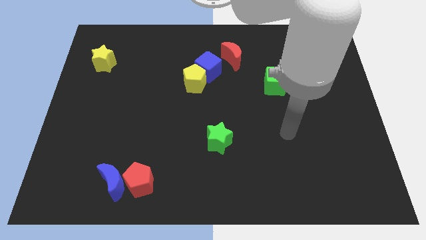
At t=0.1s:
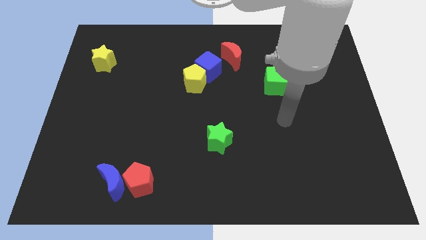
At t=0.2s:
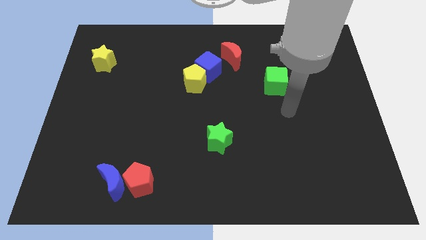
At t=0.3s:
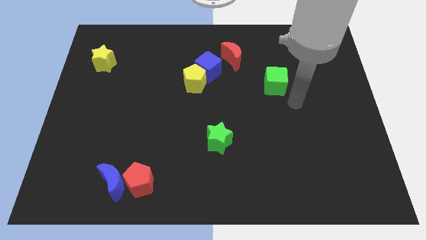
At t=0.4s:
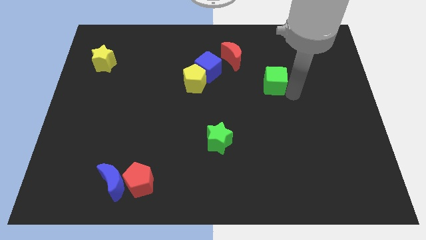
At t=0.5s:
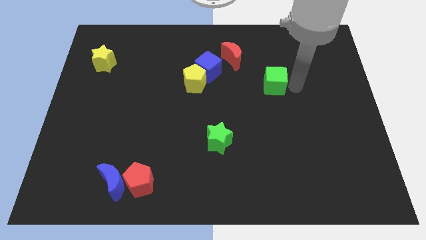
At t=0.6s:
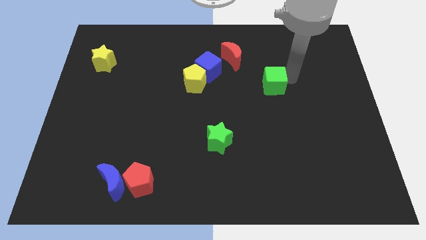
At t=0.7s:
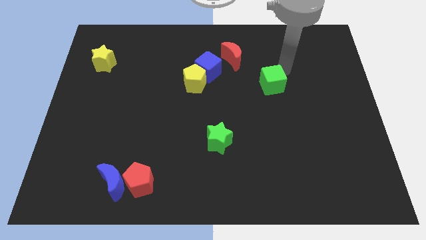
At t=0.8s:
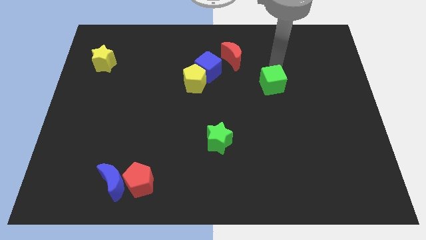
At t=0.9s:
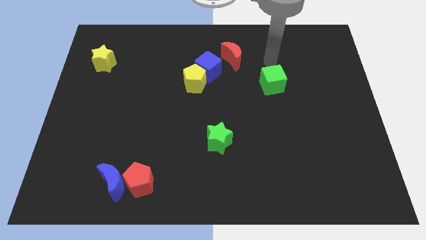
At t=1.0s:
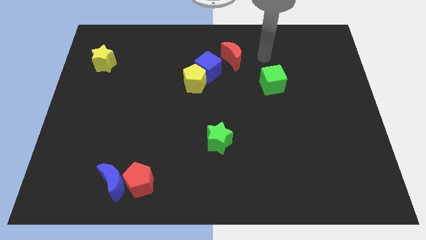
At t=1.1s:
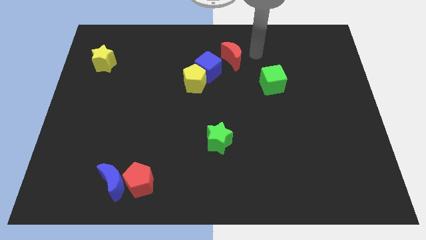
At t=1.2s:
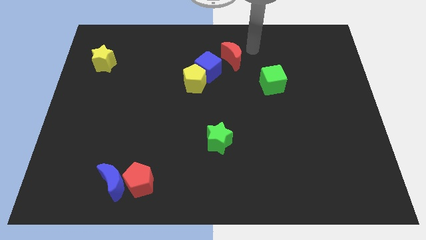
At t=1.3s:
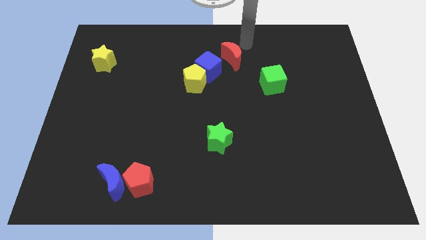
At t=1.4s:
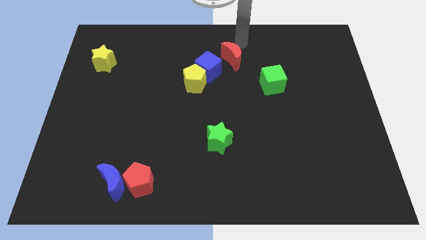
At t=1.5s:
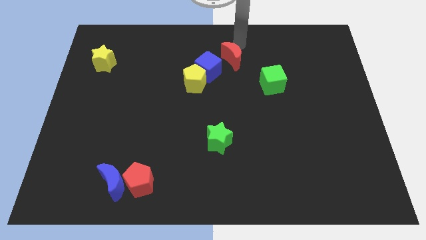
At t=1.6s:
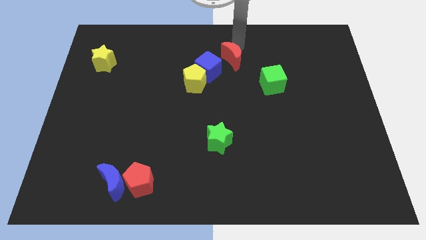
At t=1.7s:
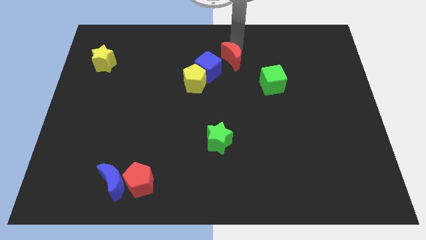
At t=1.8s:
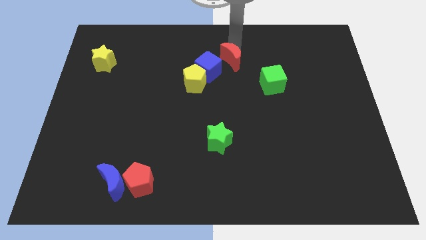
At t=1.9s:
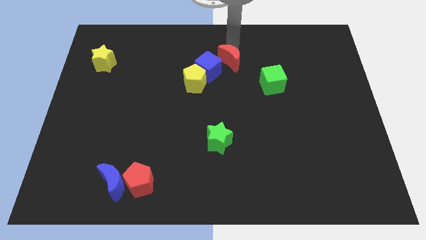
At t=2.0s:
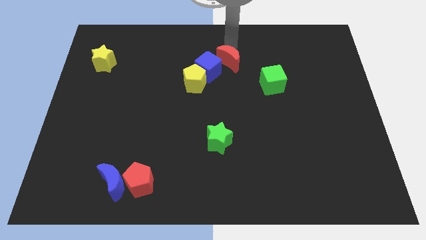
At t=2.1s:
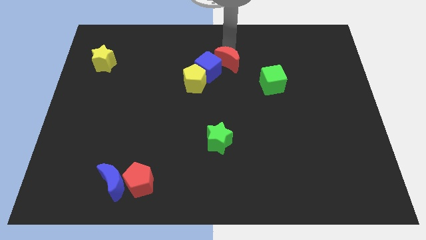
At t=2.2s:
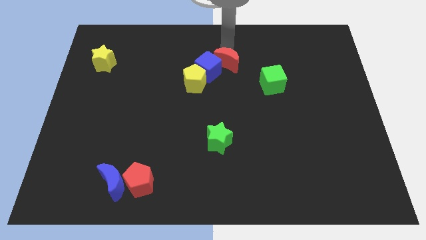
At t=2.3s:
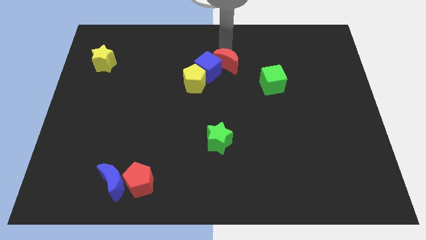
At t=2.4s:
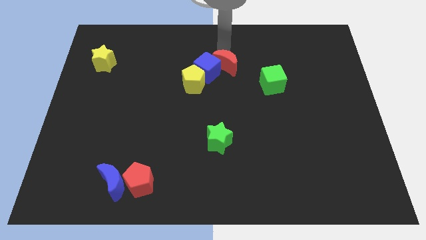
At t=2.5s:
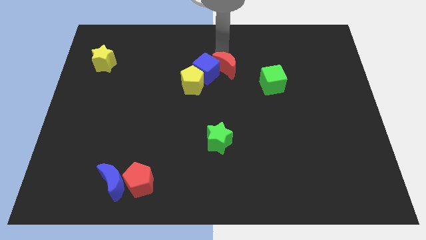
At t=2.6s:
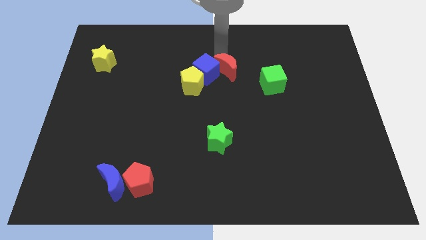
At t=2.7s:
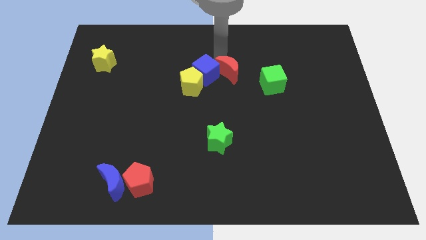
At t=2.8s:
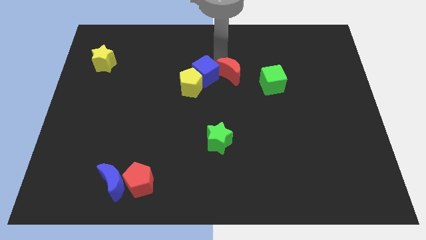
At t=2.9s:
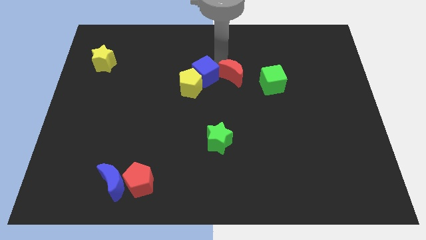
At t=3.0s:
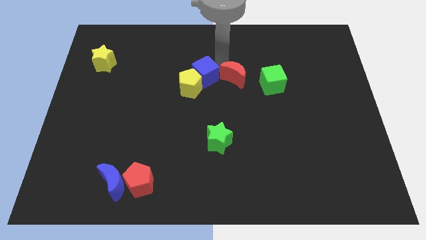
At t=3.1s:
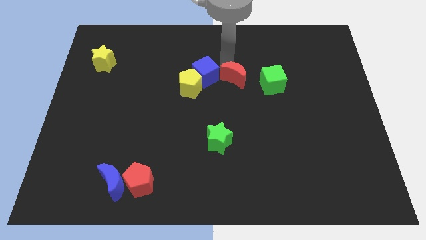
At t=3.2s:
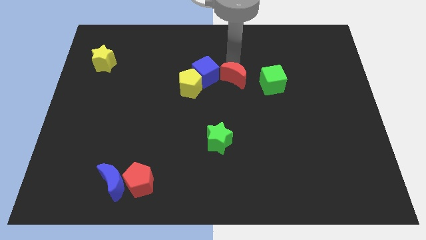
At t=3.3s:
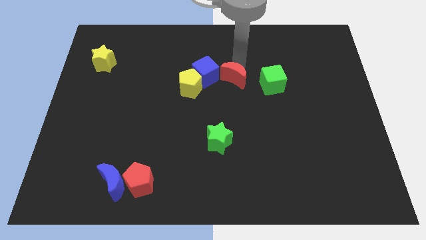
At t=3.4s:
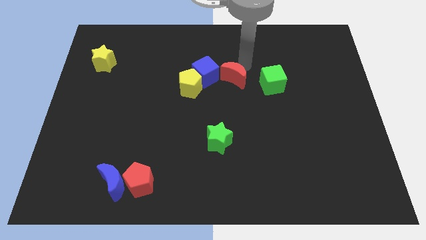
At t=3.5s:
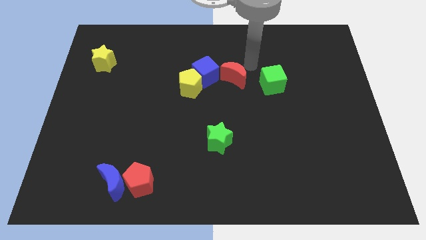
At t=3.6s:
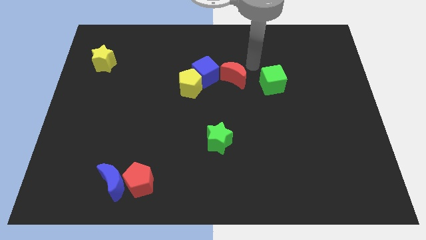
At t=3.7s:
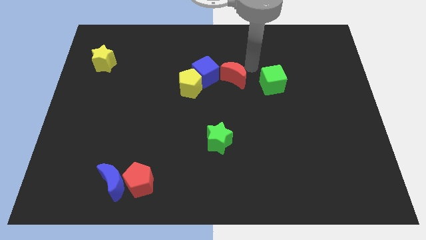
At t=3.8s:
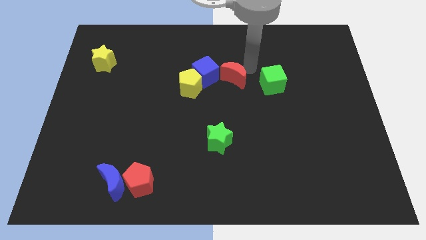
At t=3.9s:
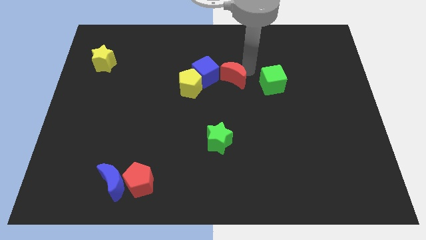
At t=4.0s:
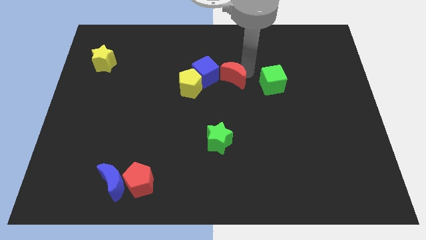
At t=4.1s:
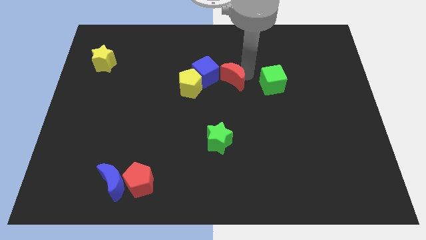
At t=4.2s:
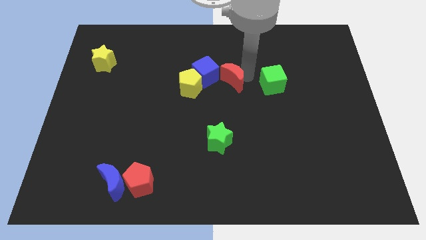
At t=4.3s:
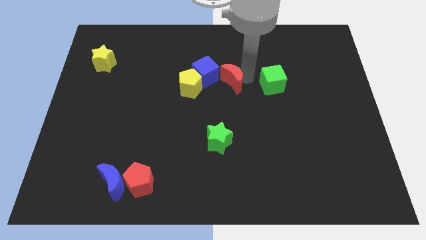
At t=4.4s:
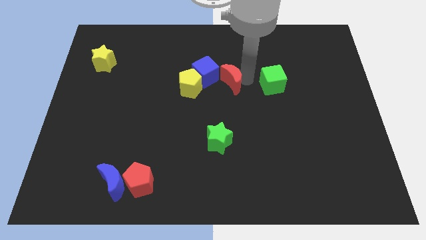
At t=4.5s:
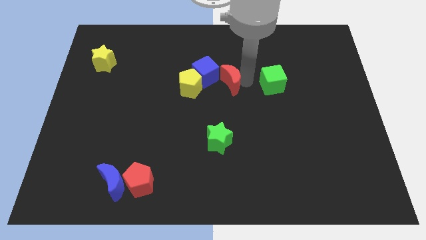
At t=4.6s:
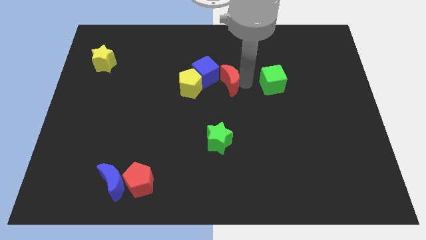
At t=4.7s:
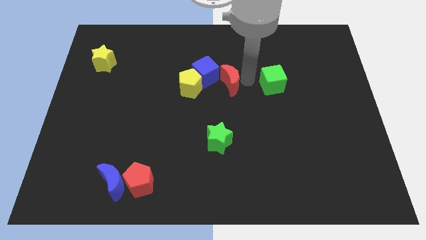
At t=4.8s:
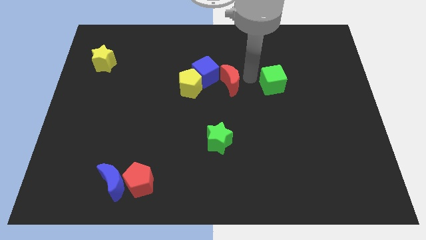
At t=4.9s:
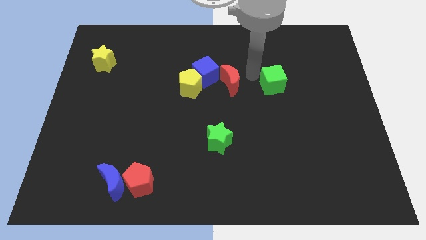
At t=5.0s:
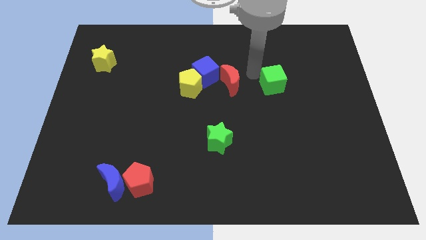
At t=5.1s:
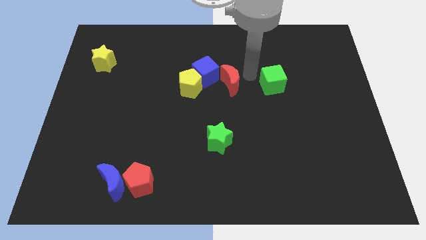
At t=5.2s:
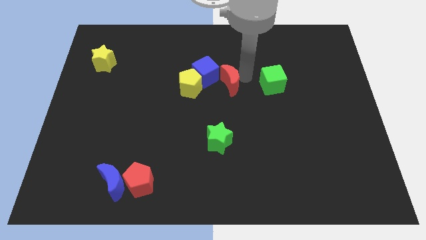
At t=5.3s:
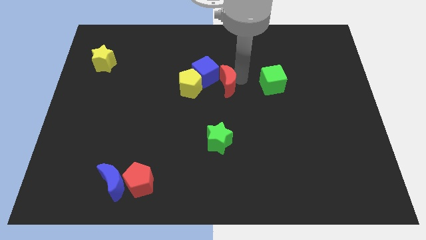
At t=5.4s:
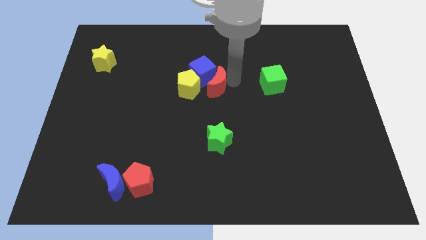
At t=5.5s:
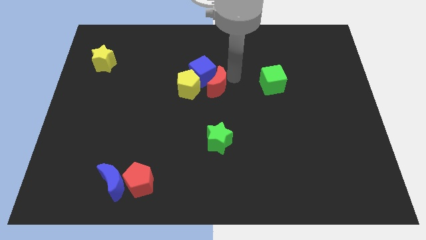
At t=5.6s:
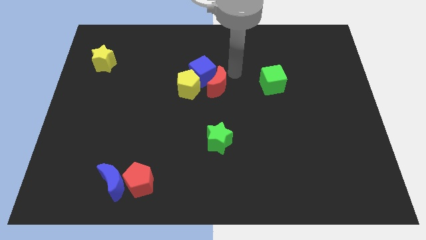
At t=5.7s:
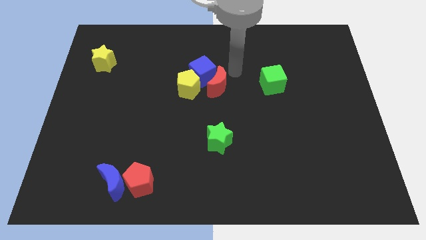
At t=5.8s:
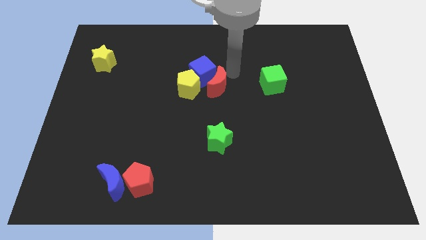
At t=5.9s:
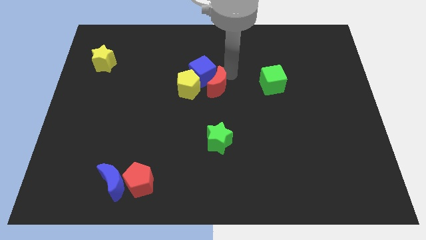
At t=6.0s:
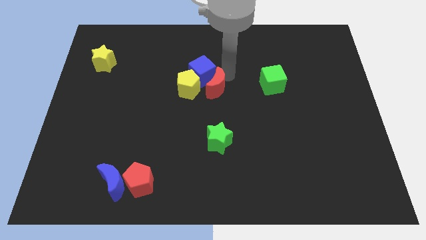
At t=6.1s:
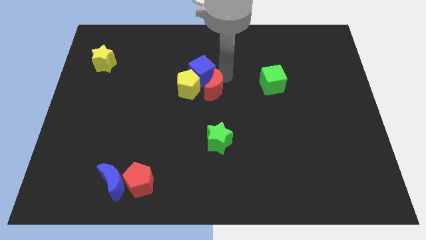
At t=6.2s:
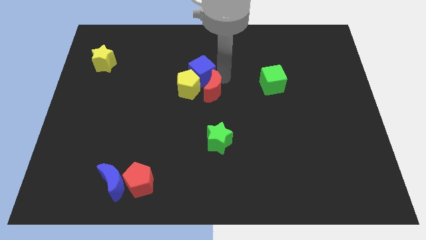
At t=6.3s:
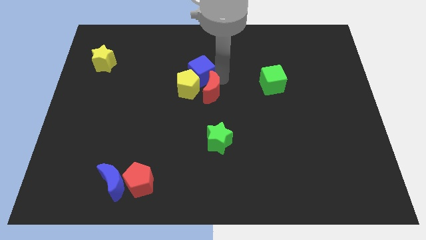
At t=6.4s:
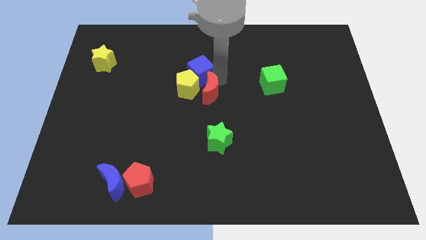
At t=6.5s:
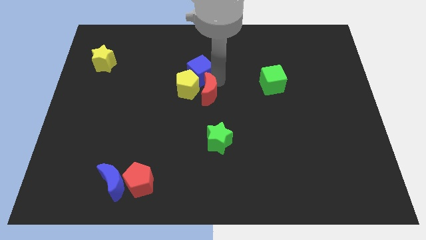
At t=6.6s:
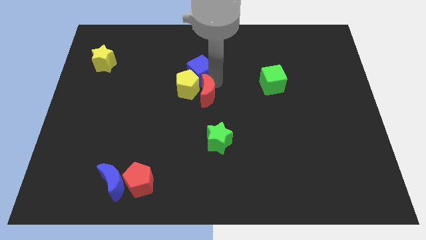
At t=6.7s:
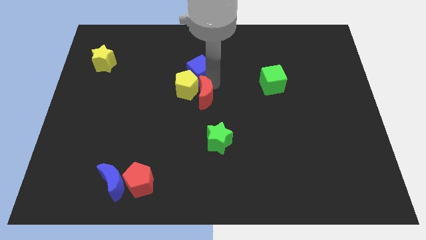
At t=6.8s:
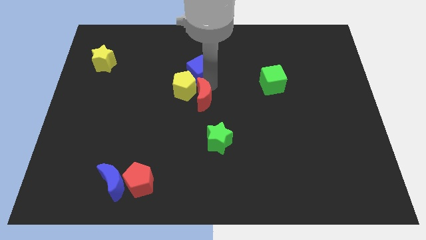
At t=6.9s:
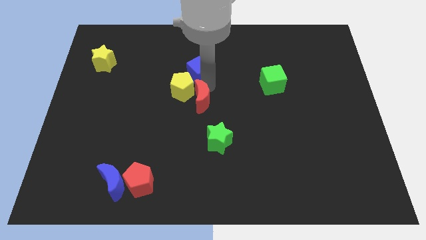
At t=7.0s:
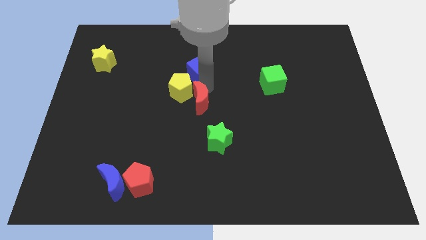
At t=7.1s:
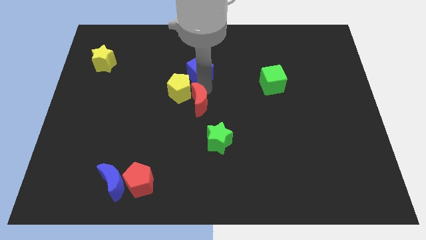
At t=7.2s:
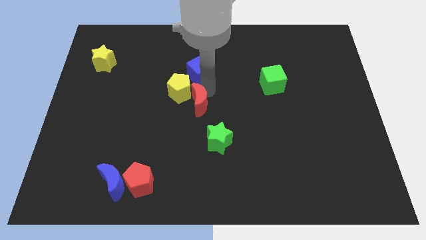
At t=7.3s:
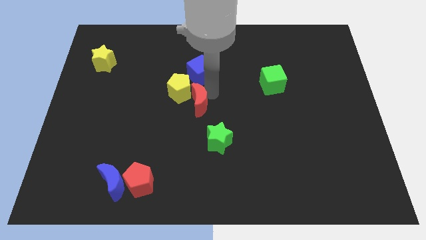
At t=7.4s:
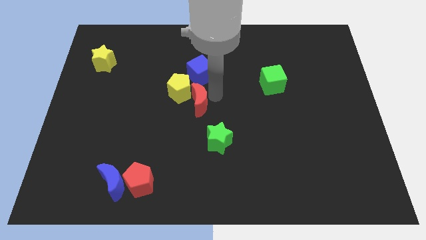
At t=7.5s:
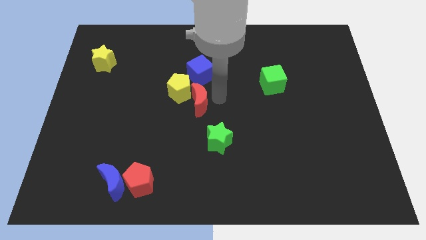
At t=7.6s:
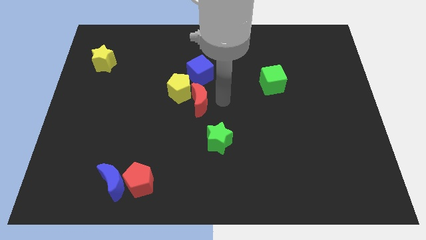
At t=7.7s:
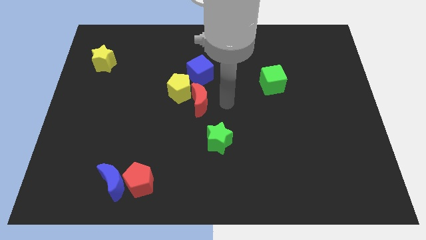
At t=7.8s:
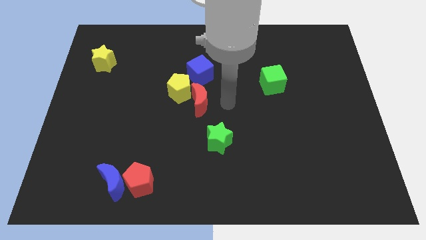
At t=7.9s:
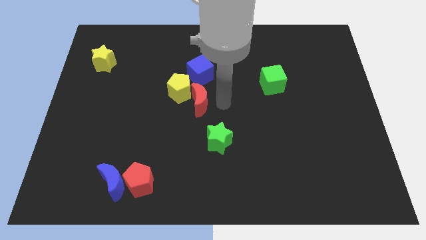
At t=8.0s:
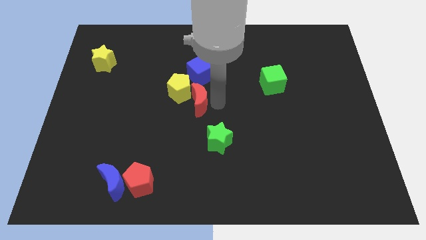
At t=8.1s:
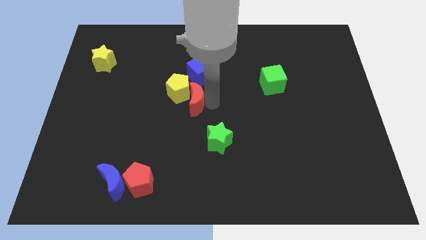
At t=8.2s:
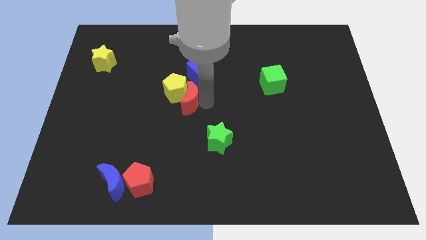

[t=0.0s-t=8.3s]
slide the red moon diagonally down and to the left of the blue cube
